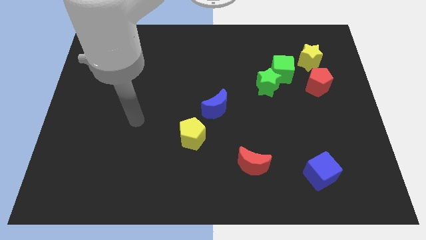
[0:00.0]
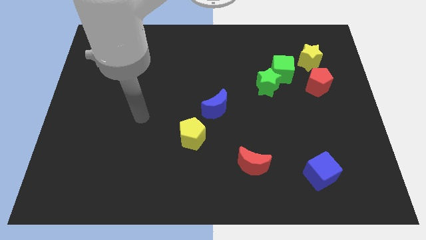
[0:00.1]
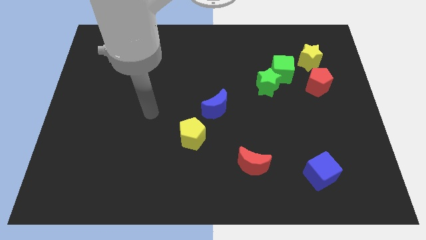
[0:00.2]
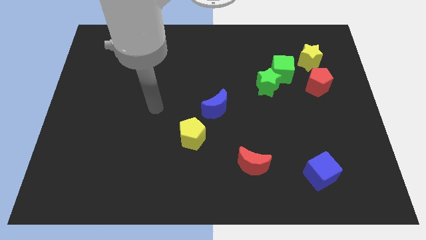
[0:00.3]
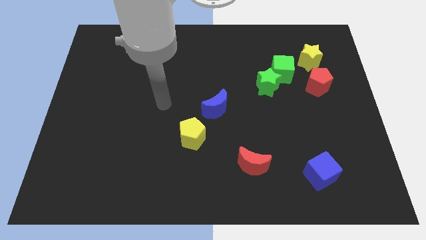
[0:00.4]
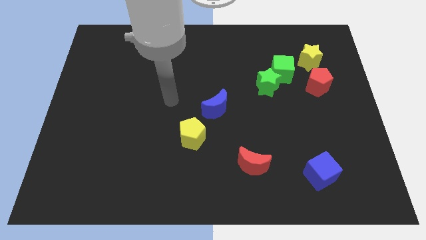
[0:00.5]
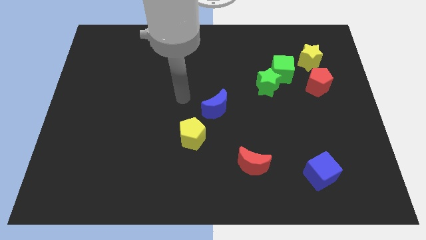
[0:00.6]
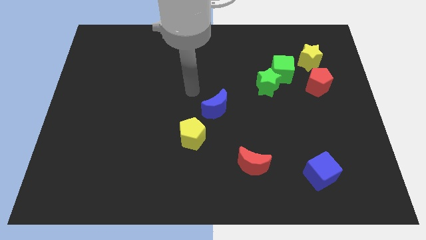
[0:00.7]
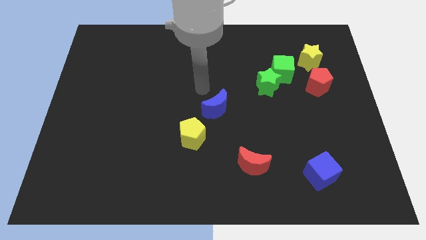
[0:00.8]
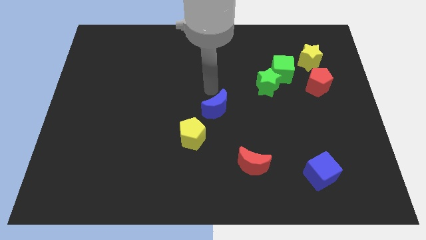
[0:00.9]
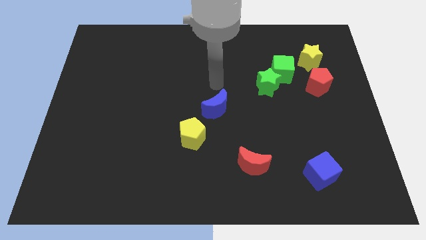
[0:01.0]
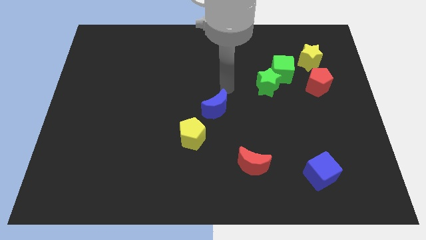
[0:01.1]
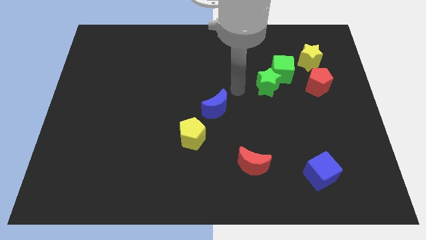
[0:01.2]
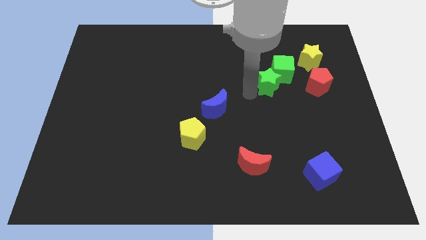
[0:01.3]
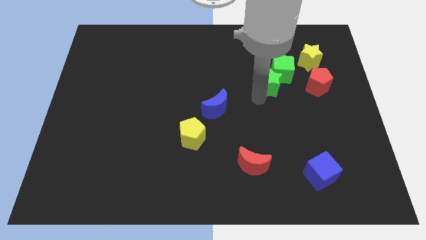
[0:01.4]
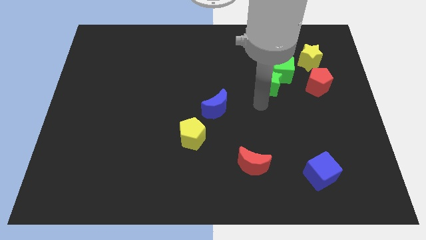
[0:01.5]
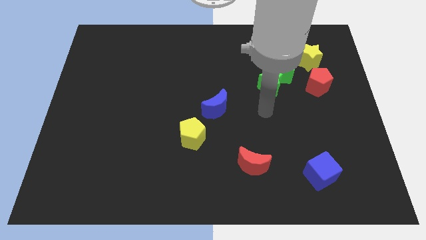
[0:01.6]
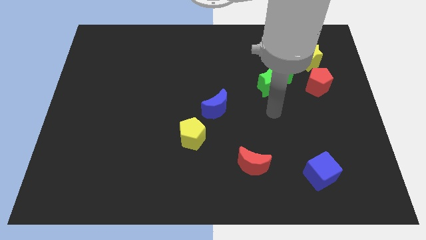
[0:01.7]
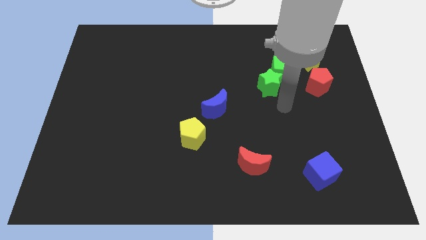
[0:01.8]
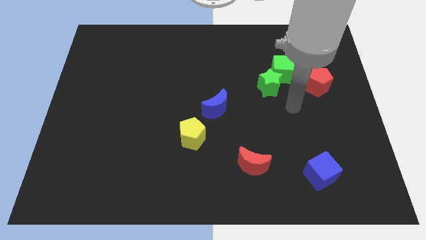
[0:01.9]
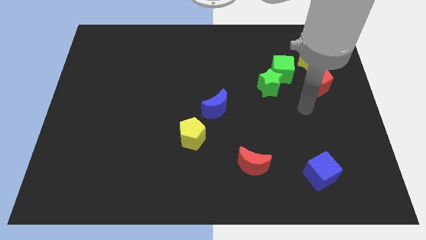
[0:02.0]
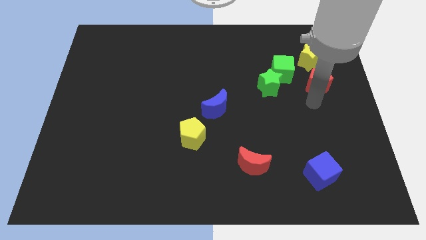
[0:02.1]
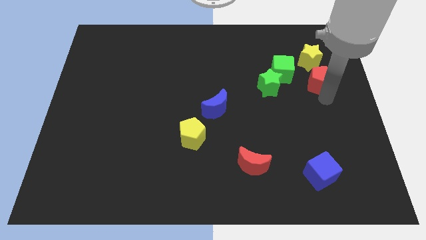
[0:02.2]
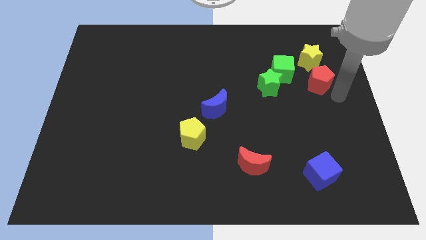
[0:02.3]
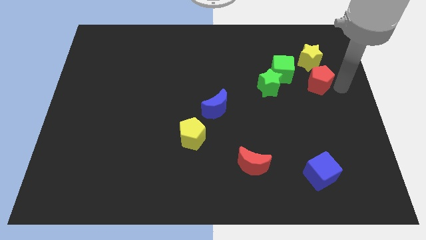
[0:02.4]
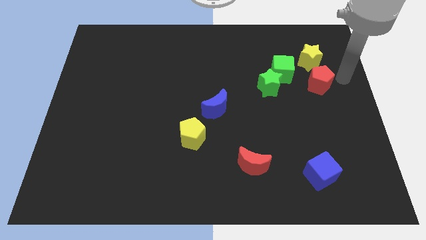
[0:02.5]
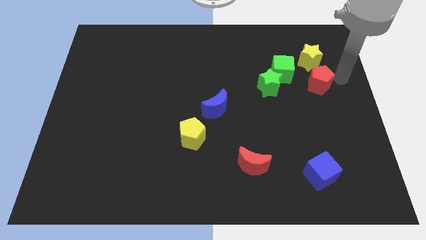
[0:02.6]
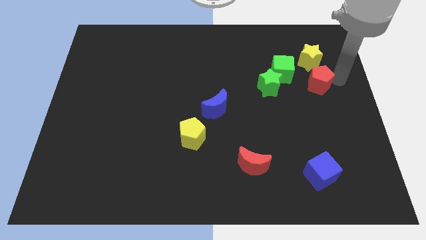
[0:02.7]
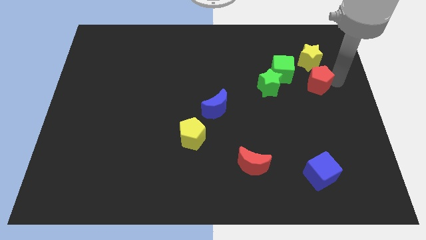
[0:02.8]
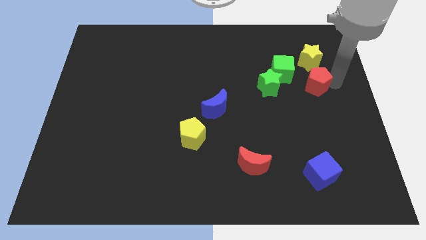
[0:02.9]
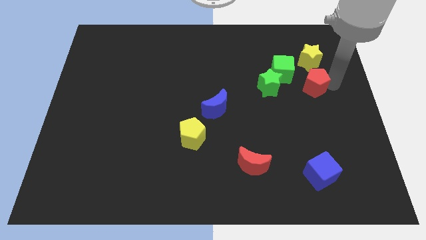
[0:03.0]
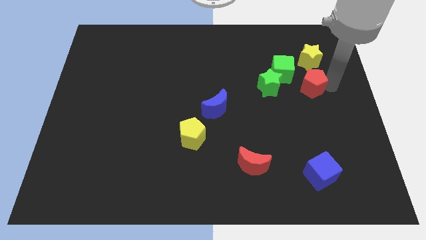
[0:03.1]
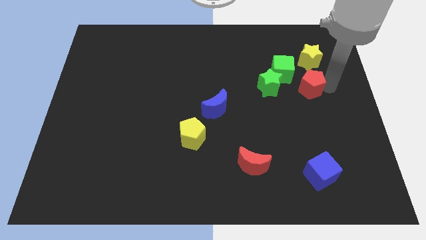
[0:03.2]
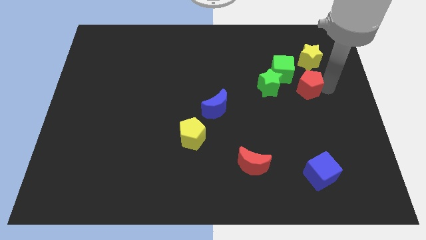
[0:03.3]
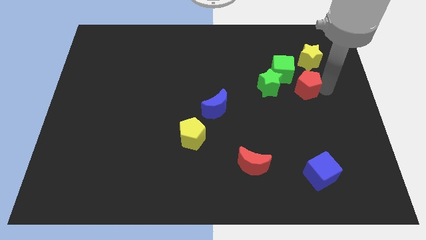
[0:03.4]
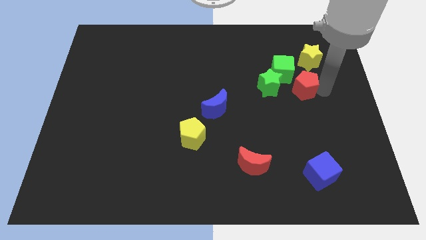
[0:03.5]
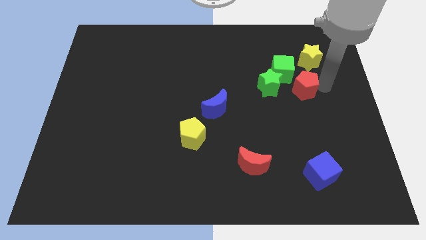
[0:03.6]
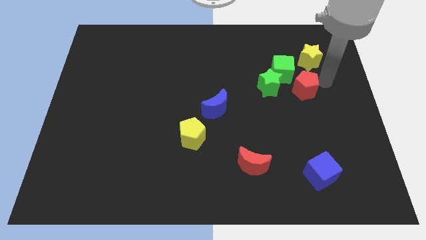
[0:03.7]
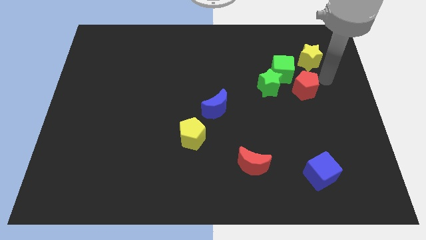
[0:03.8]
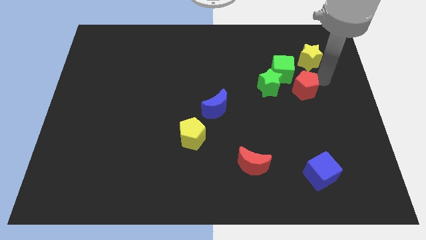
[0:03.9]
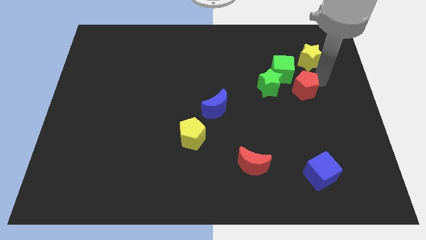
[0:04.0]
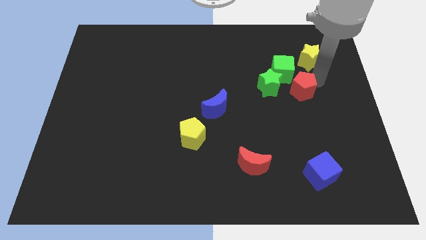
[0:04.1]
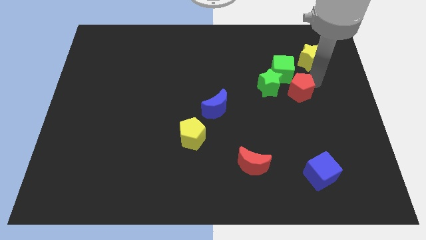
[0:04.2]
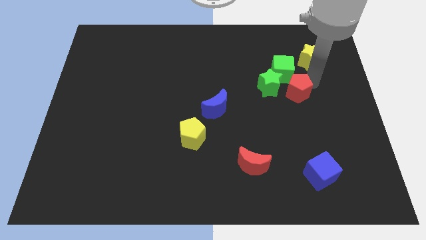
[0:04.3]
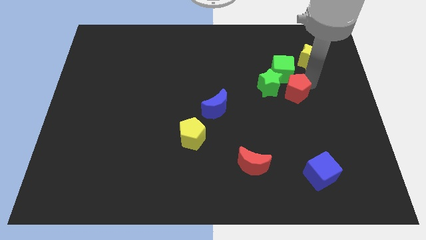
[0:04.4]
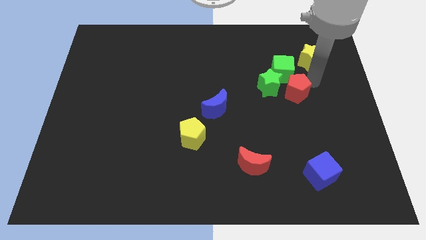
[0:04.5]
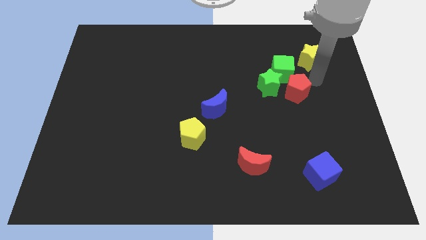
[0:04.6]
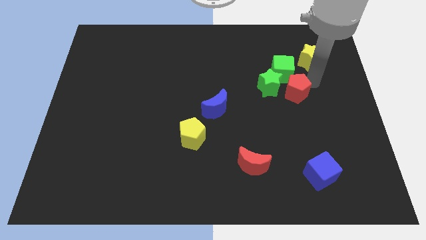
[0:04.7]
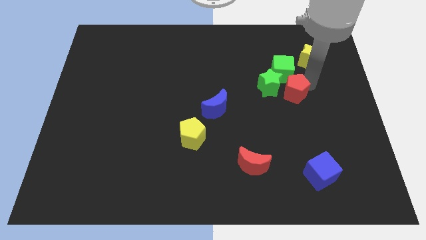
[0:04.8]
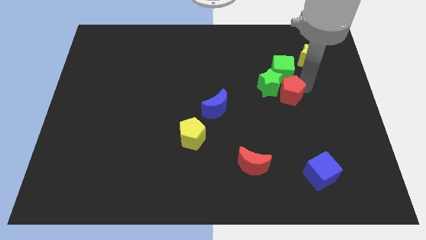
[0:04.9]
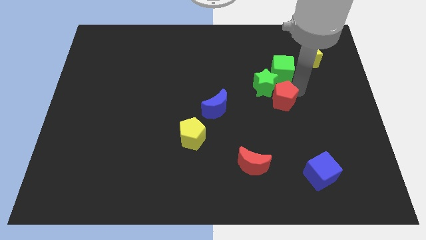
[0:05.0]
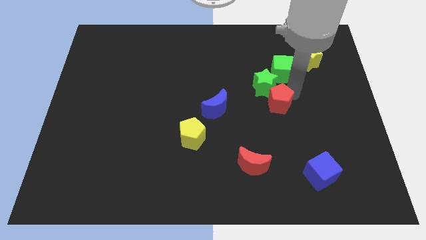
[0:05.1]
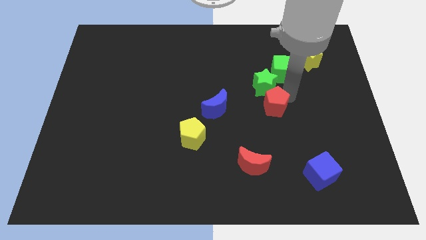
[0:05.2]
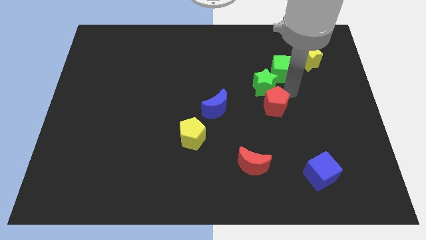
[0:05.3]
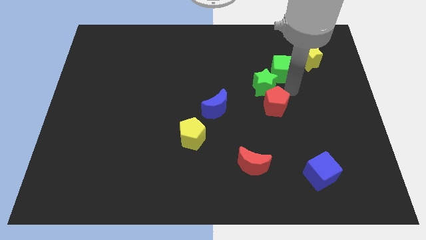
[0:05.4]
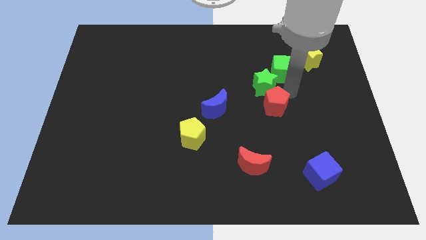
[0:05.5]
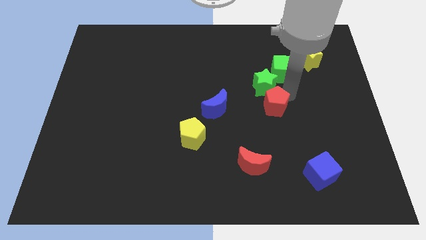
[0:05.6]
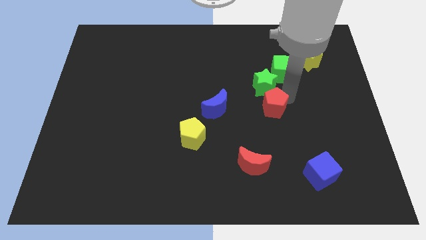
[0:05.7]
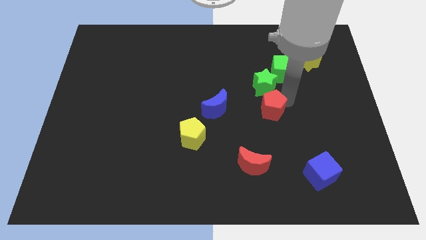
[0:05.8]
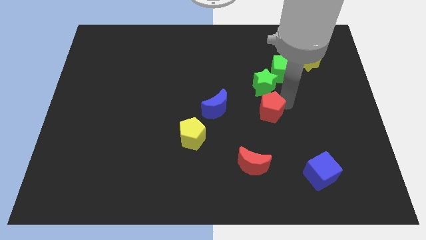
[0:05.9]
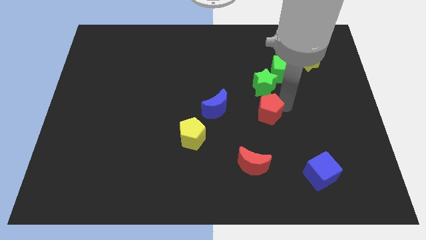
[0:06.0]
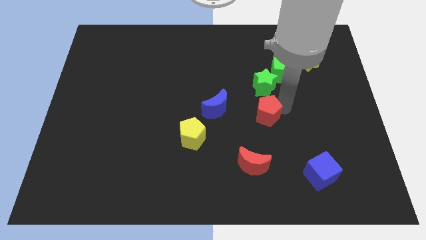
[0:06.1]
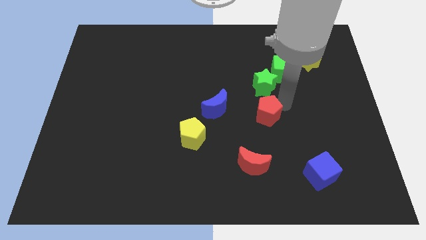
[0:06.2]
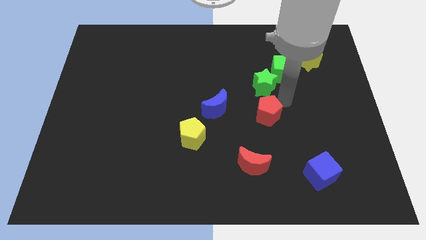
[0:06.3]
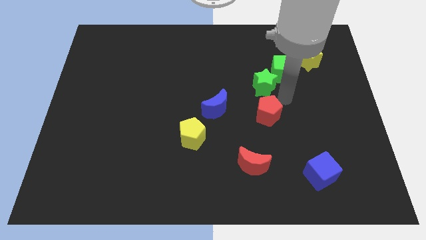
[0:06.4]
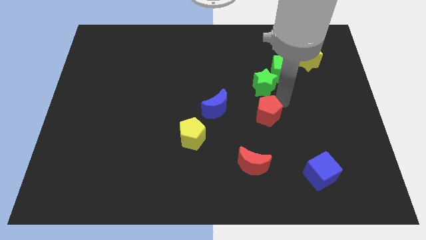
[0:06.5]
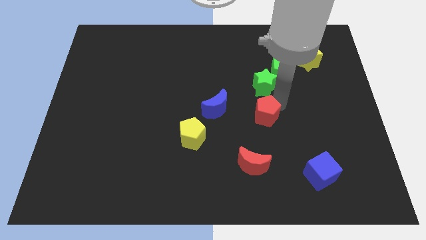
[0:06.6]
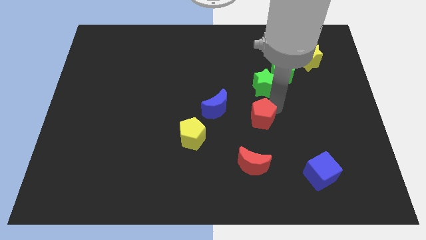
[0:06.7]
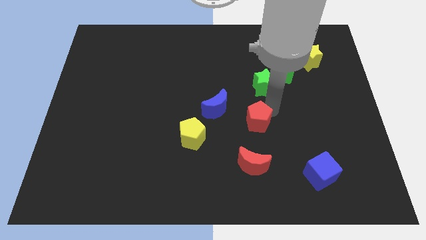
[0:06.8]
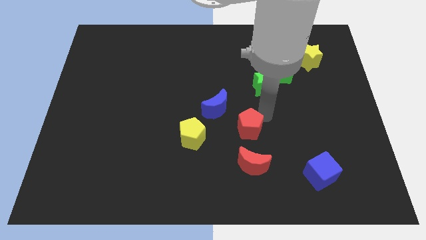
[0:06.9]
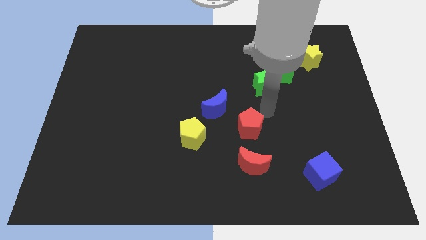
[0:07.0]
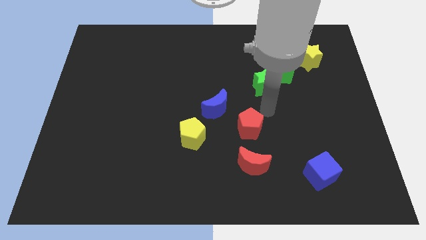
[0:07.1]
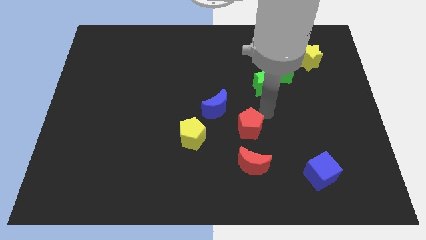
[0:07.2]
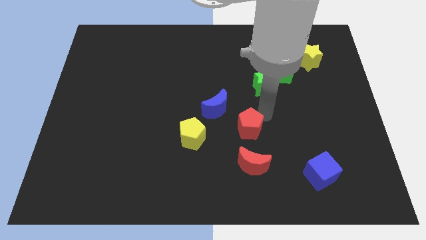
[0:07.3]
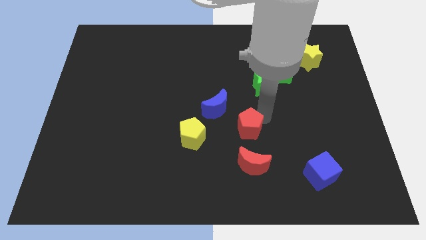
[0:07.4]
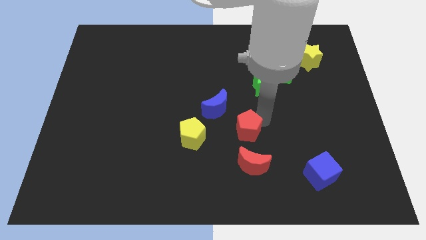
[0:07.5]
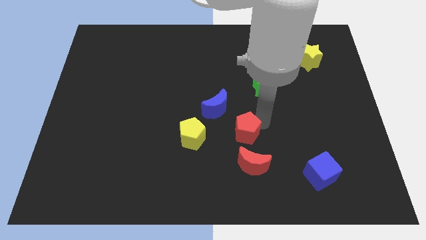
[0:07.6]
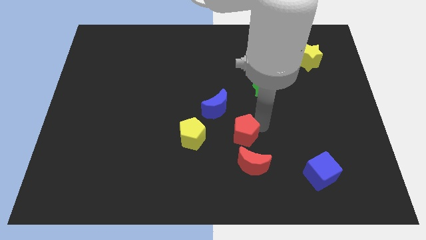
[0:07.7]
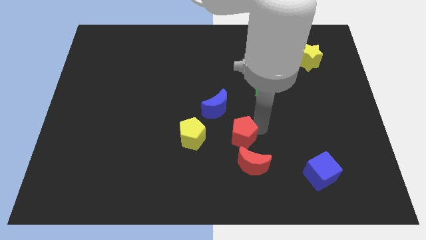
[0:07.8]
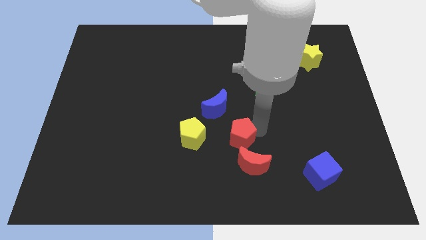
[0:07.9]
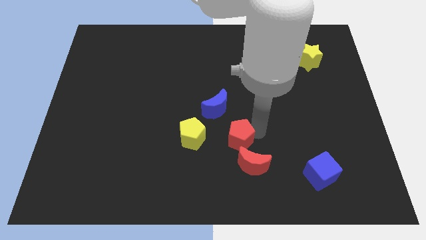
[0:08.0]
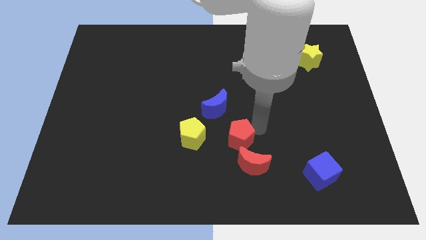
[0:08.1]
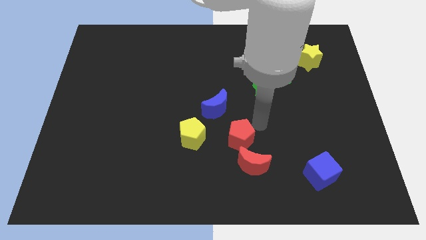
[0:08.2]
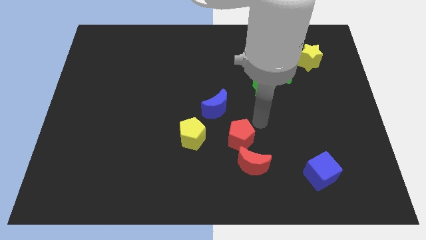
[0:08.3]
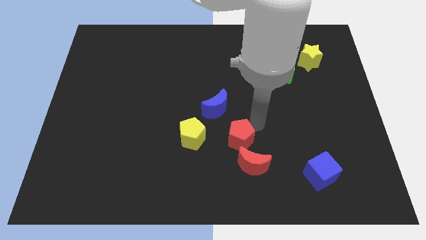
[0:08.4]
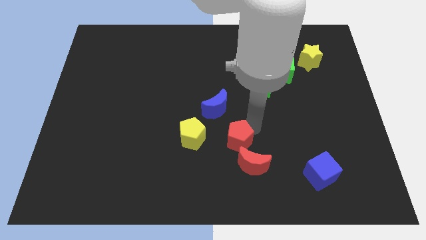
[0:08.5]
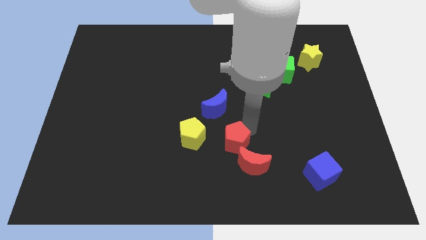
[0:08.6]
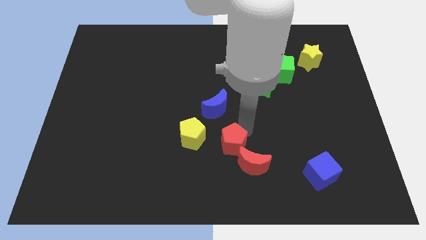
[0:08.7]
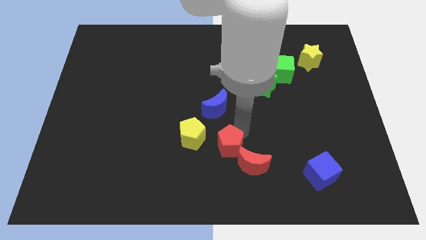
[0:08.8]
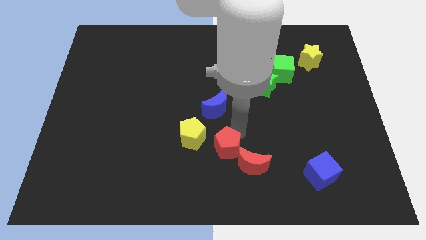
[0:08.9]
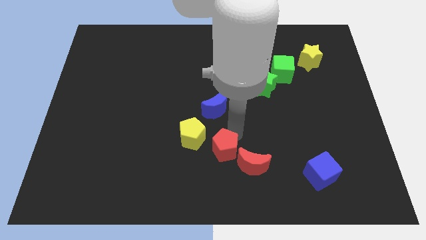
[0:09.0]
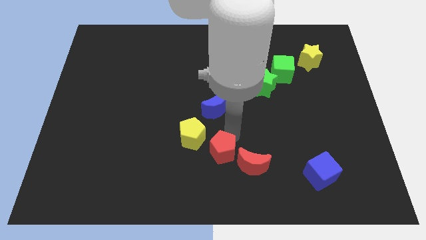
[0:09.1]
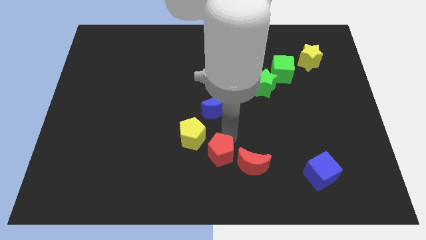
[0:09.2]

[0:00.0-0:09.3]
put the red pentagon to the bottom
